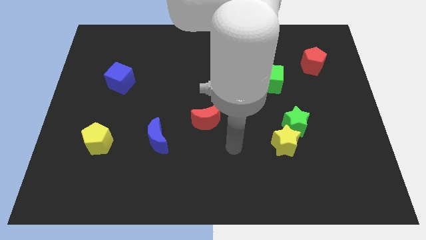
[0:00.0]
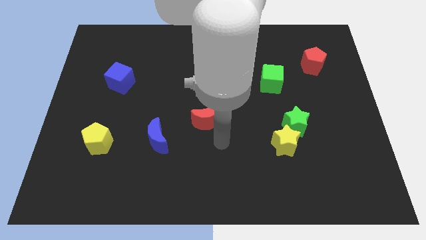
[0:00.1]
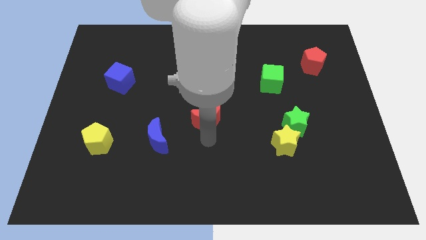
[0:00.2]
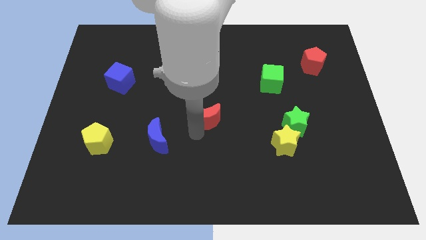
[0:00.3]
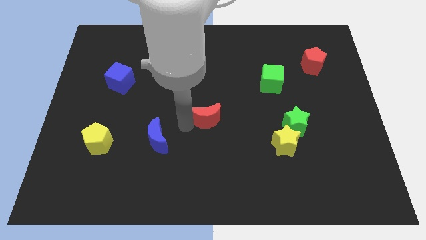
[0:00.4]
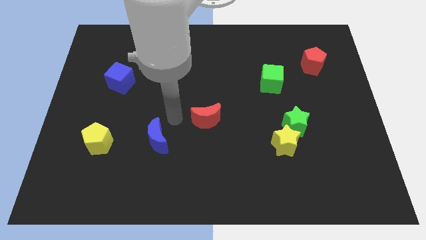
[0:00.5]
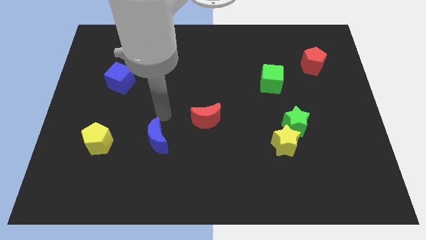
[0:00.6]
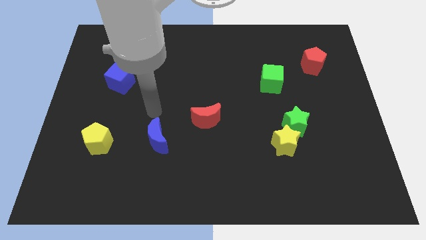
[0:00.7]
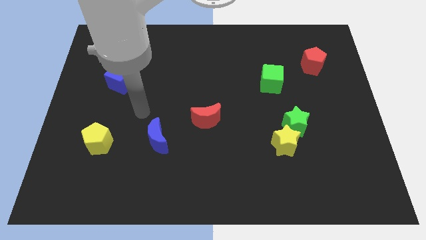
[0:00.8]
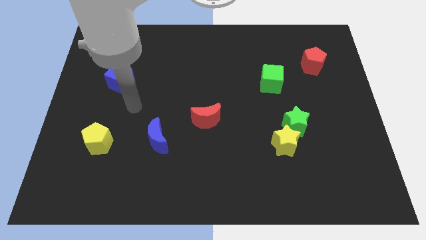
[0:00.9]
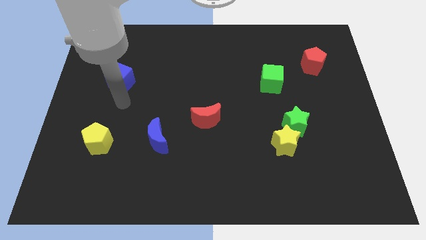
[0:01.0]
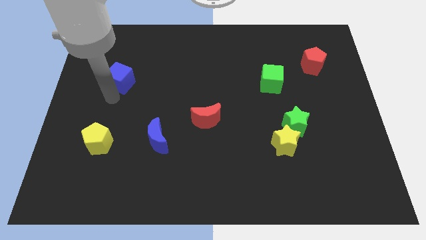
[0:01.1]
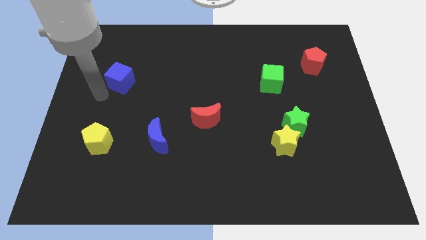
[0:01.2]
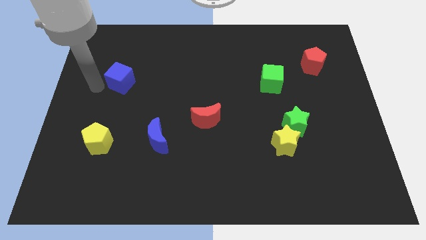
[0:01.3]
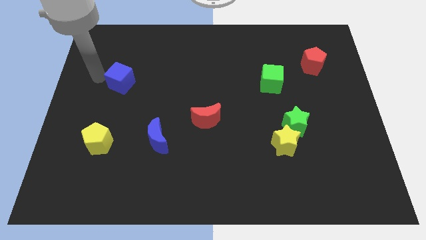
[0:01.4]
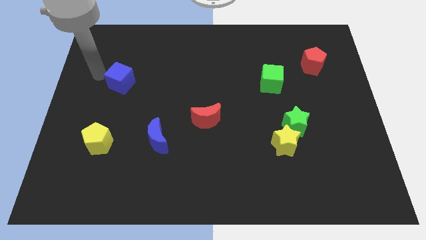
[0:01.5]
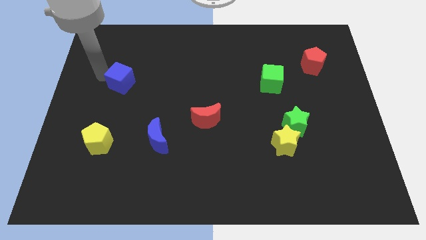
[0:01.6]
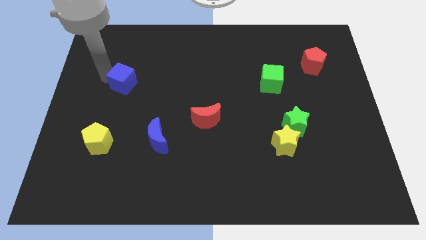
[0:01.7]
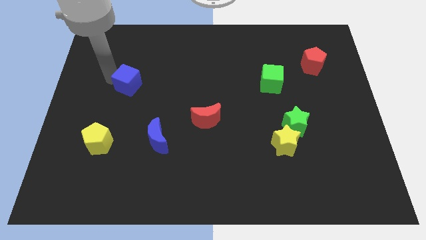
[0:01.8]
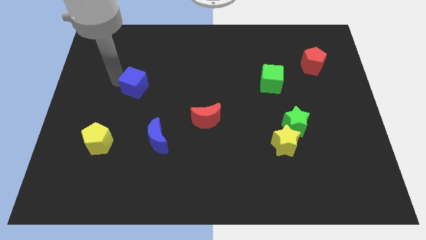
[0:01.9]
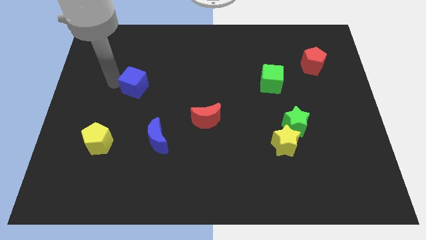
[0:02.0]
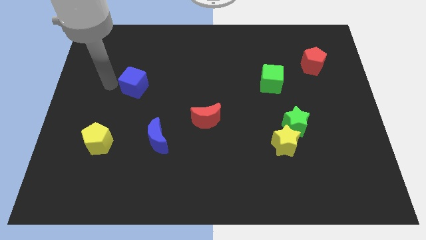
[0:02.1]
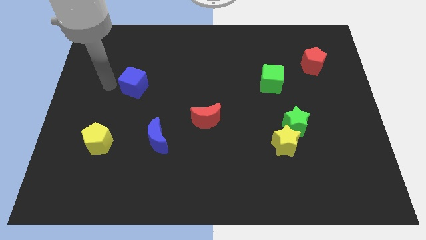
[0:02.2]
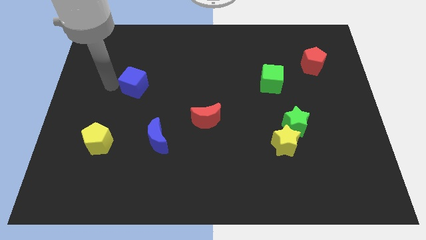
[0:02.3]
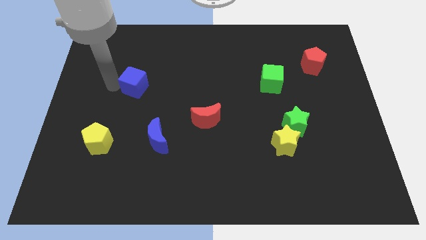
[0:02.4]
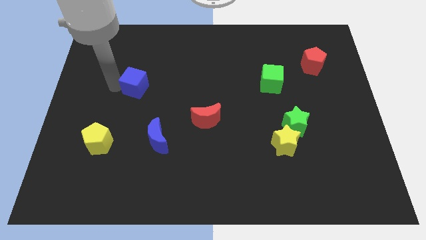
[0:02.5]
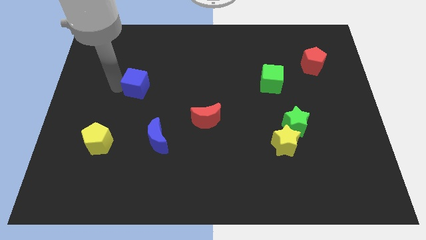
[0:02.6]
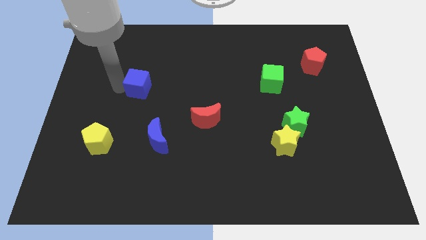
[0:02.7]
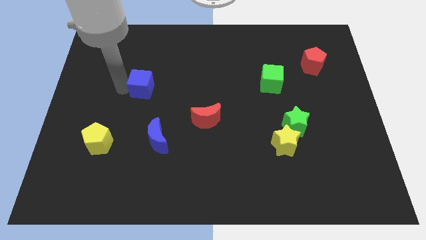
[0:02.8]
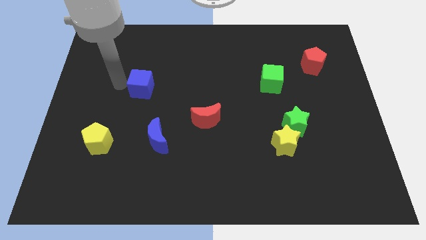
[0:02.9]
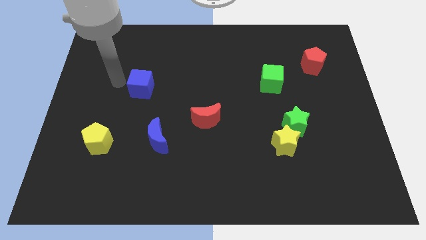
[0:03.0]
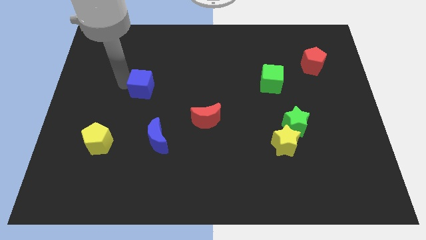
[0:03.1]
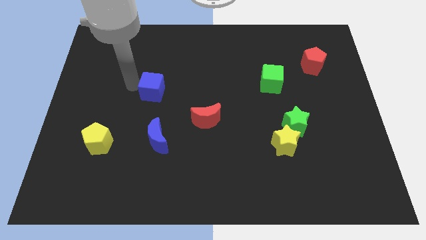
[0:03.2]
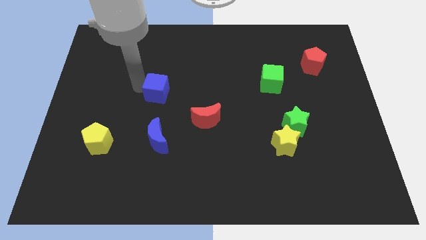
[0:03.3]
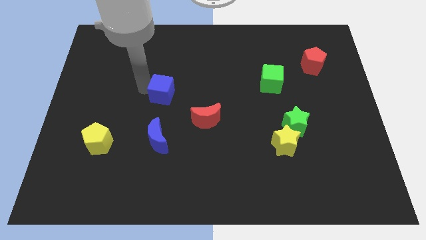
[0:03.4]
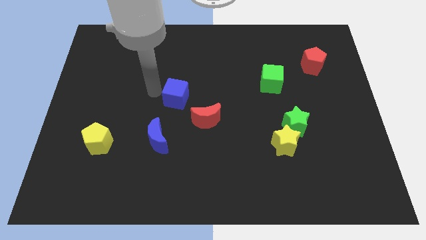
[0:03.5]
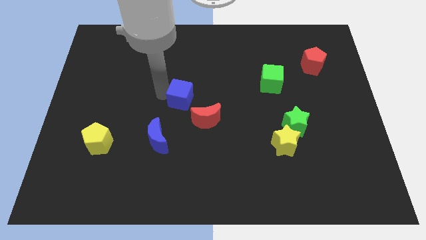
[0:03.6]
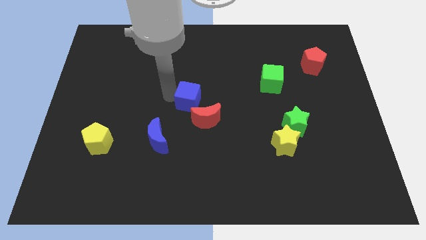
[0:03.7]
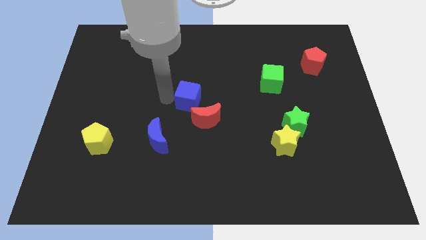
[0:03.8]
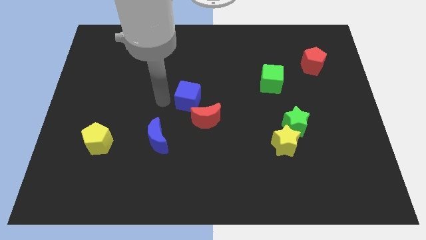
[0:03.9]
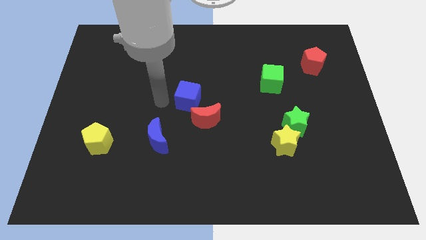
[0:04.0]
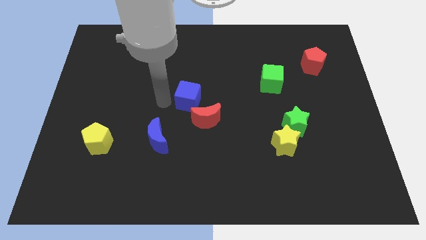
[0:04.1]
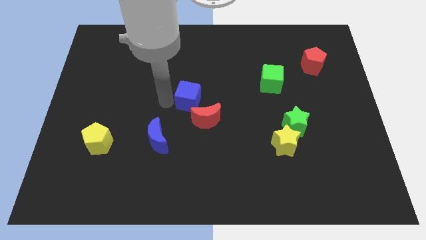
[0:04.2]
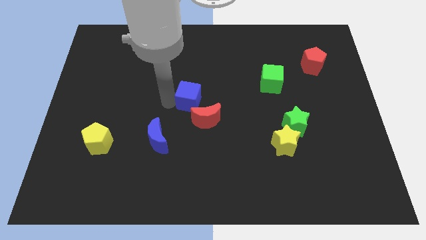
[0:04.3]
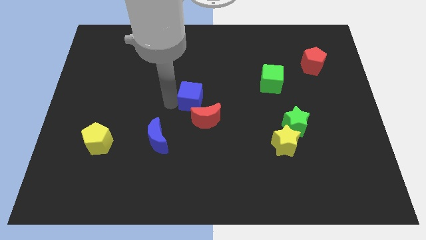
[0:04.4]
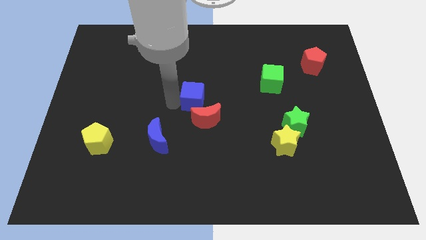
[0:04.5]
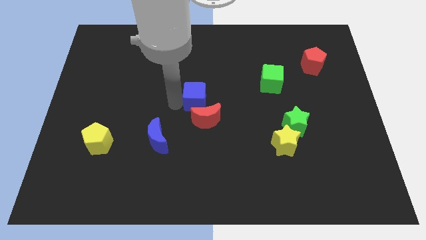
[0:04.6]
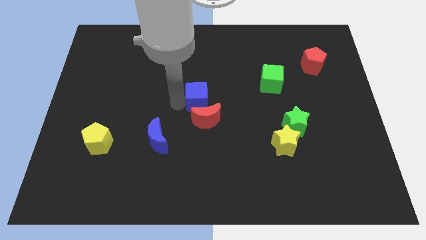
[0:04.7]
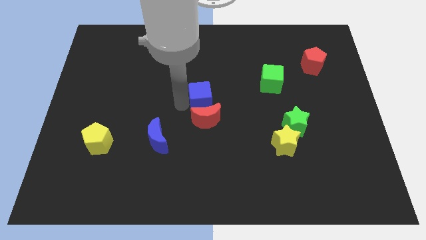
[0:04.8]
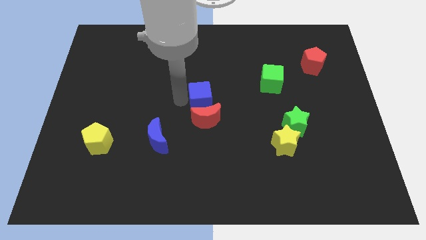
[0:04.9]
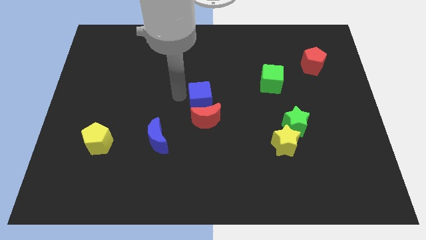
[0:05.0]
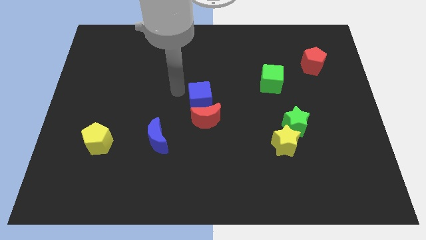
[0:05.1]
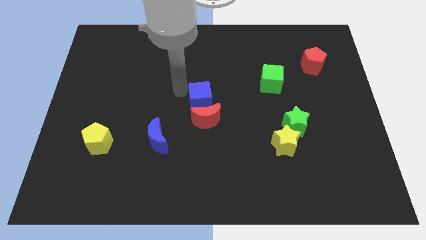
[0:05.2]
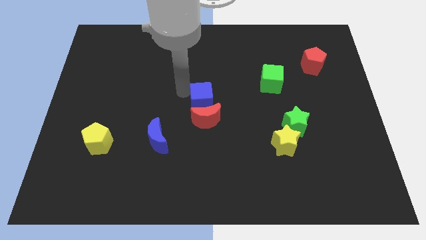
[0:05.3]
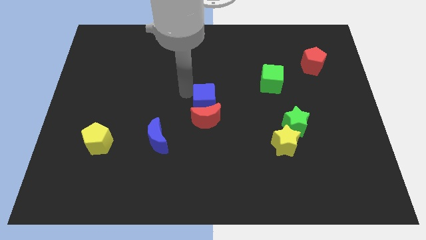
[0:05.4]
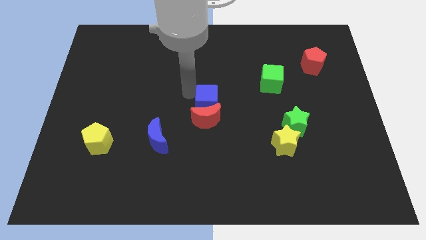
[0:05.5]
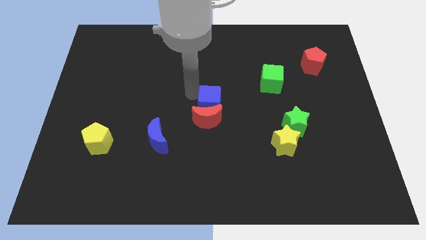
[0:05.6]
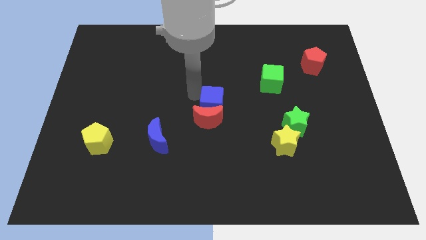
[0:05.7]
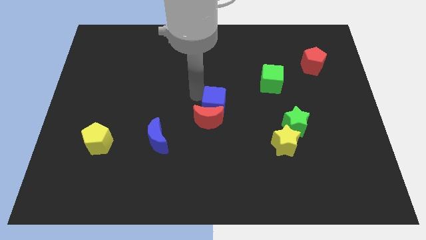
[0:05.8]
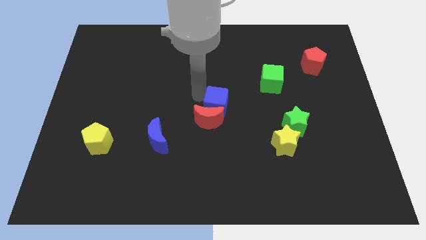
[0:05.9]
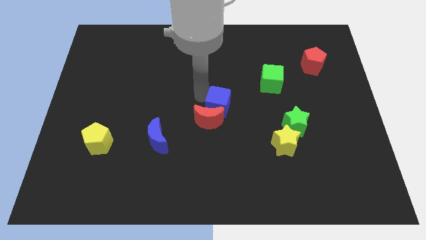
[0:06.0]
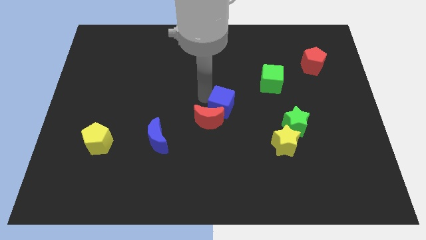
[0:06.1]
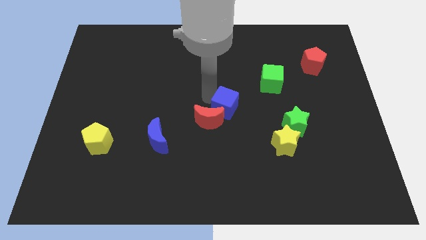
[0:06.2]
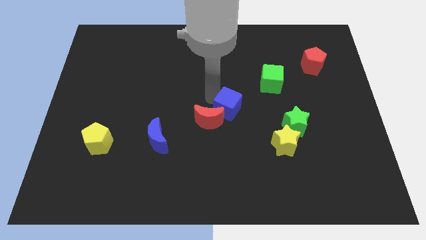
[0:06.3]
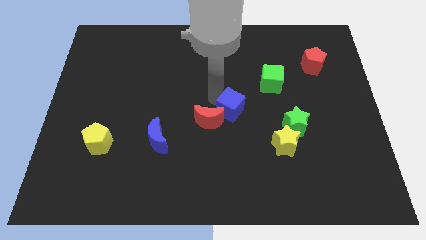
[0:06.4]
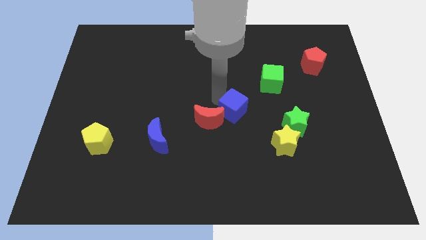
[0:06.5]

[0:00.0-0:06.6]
move the blue cube to the left of the green star
